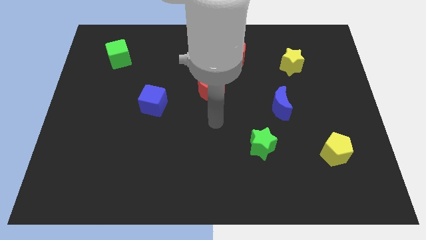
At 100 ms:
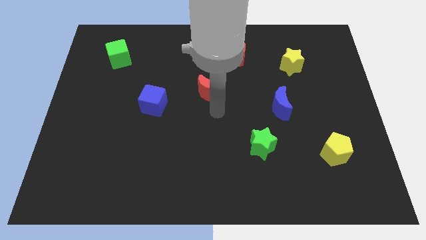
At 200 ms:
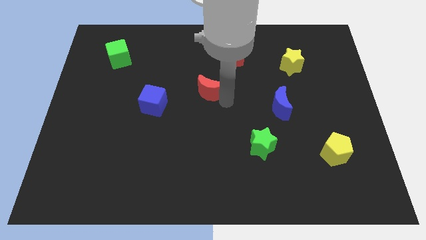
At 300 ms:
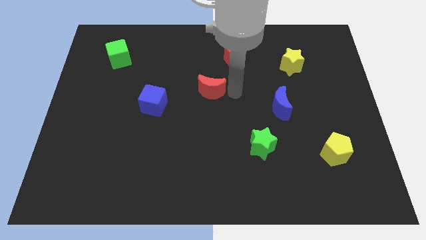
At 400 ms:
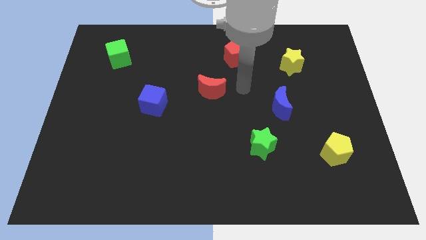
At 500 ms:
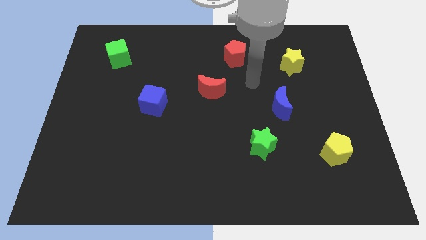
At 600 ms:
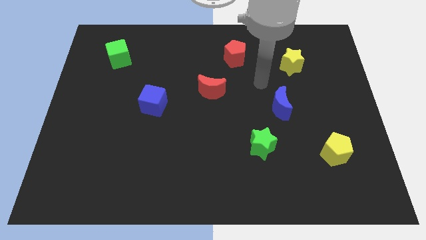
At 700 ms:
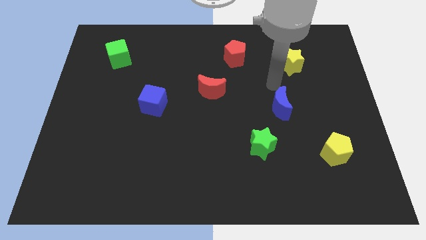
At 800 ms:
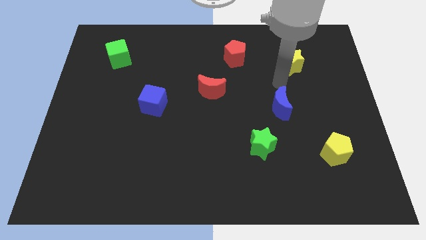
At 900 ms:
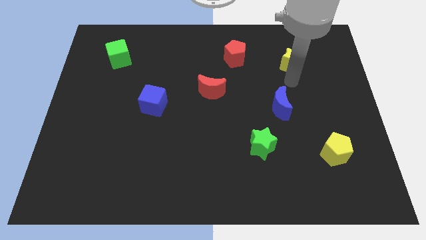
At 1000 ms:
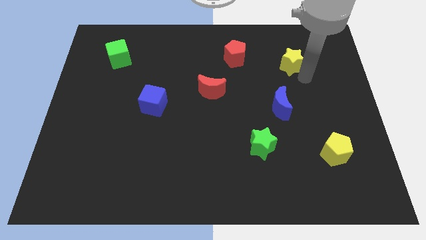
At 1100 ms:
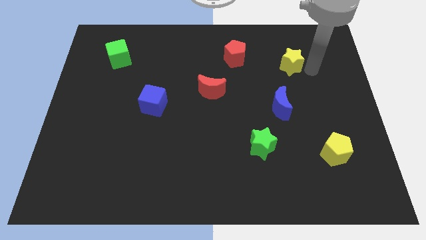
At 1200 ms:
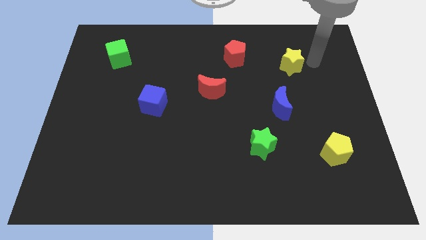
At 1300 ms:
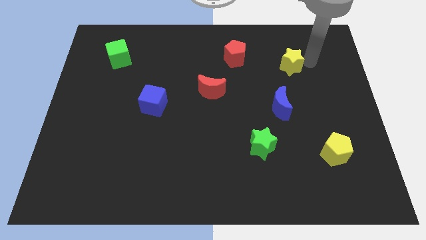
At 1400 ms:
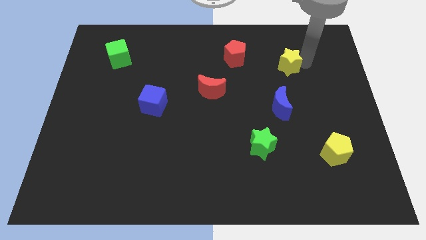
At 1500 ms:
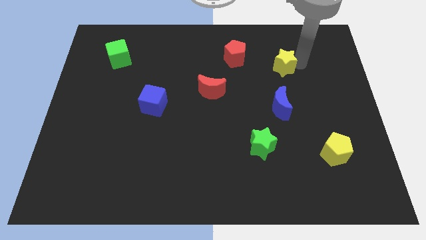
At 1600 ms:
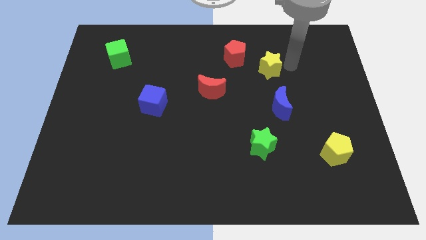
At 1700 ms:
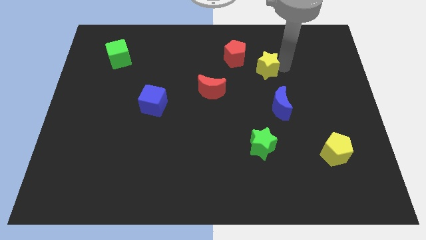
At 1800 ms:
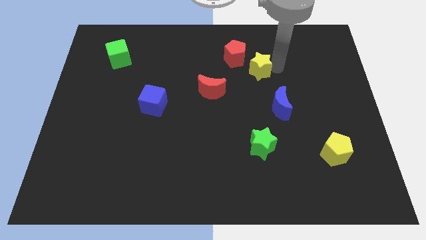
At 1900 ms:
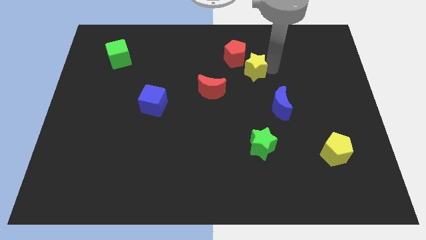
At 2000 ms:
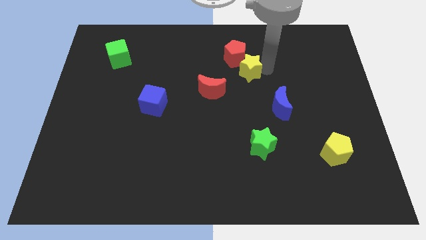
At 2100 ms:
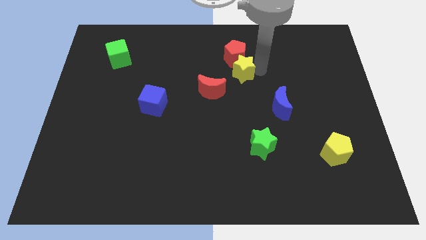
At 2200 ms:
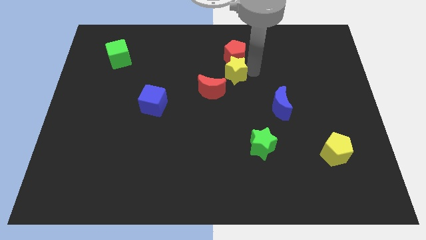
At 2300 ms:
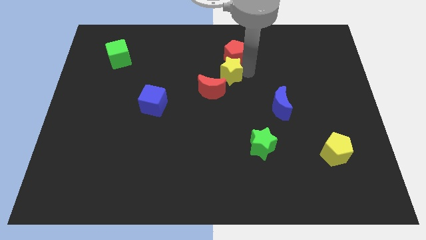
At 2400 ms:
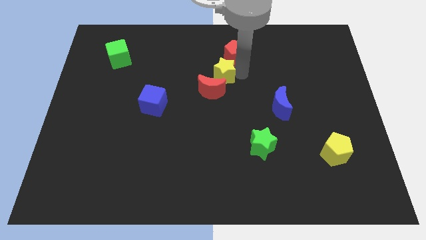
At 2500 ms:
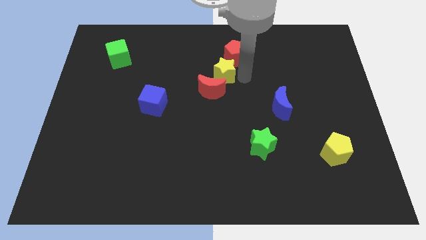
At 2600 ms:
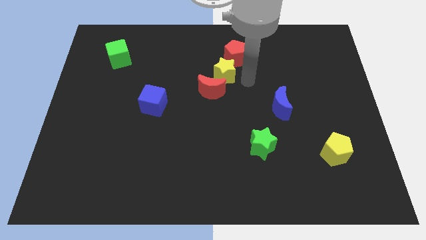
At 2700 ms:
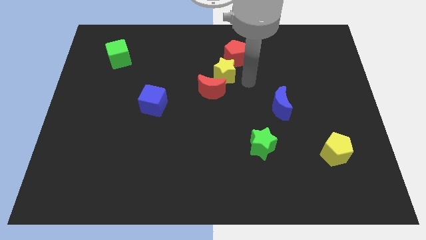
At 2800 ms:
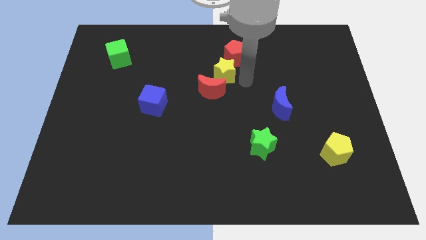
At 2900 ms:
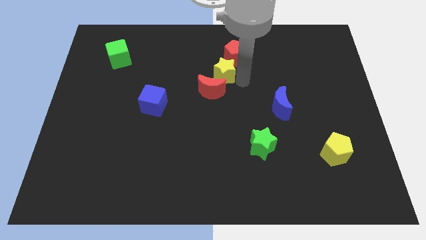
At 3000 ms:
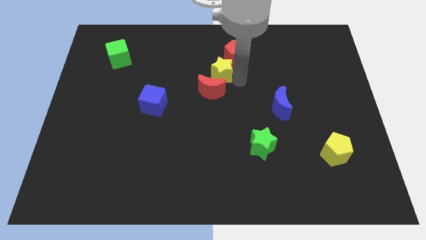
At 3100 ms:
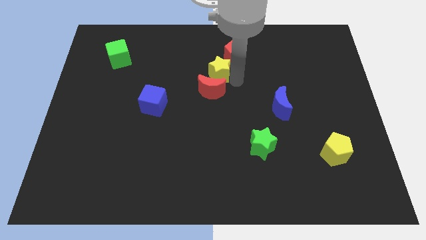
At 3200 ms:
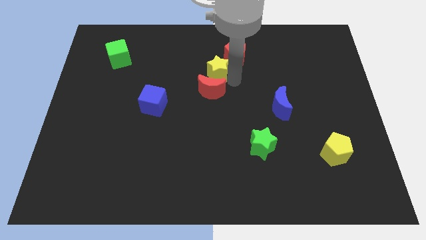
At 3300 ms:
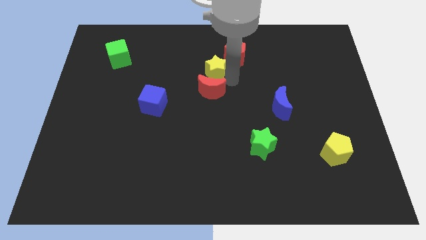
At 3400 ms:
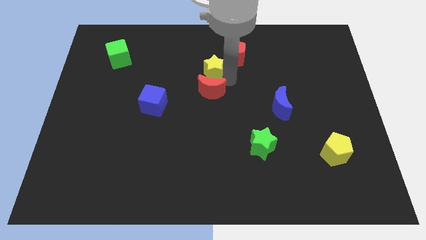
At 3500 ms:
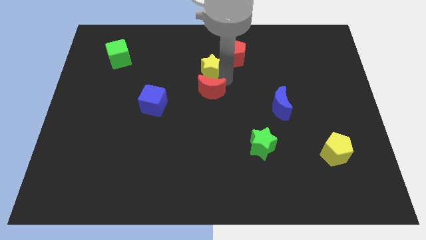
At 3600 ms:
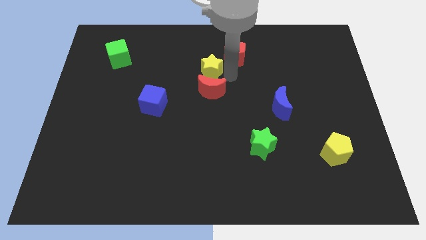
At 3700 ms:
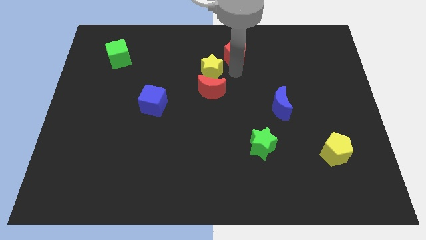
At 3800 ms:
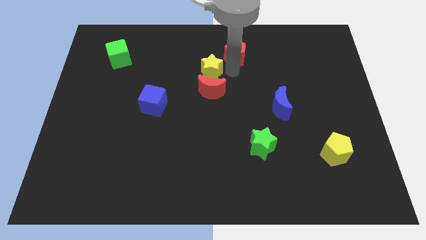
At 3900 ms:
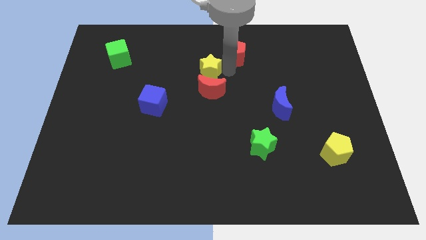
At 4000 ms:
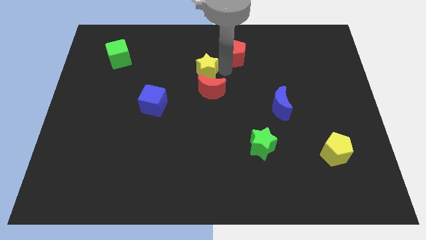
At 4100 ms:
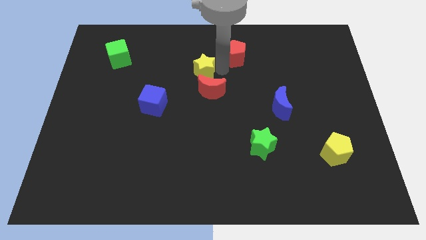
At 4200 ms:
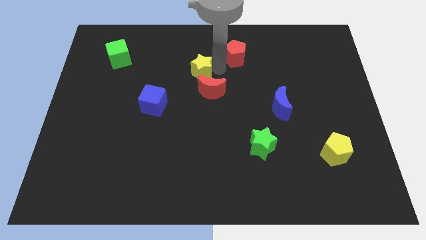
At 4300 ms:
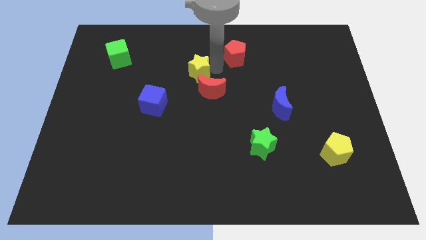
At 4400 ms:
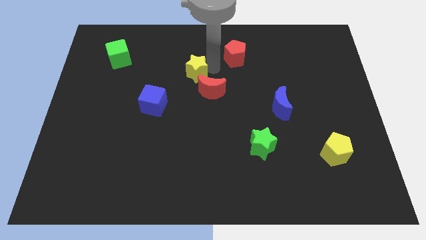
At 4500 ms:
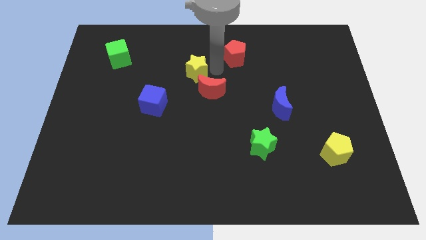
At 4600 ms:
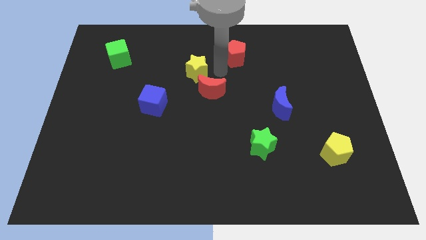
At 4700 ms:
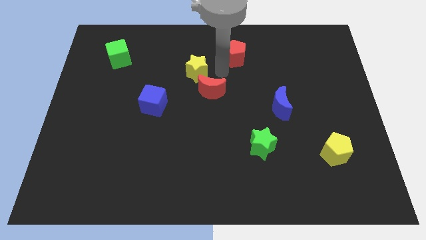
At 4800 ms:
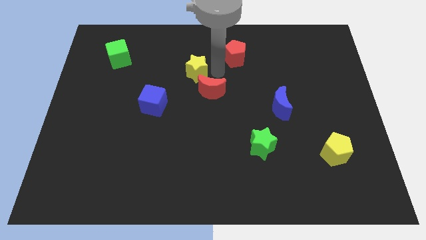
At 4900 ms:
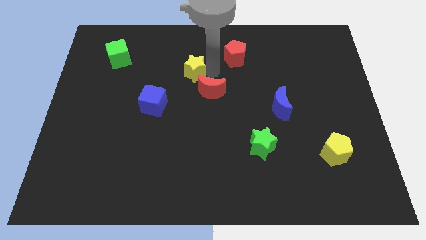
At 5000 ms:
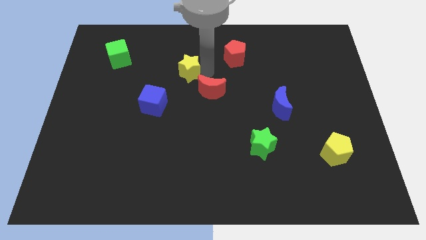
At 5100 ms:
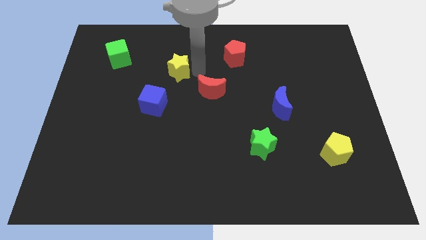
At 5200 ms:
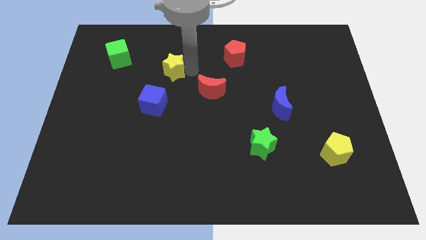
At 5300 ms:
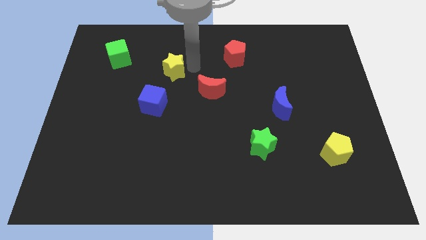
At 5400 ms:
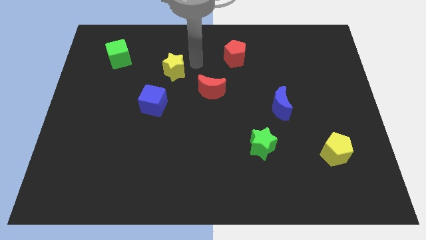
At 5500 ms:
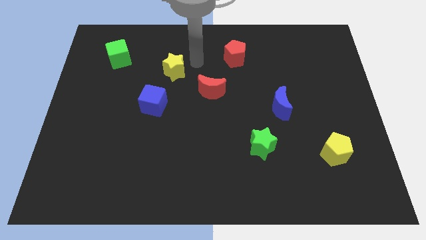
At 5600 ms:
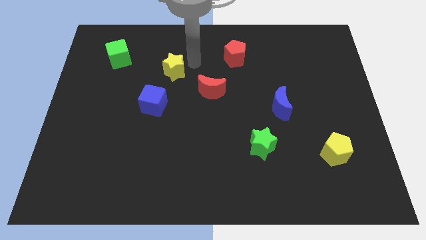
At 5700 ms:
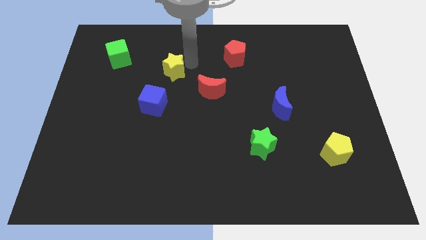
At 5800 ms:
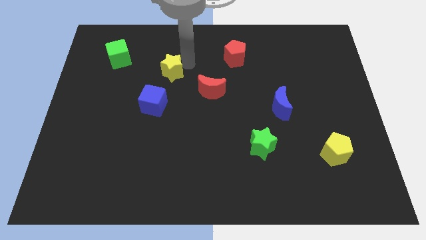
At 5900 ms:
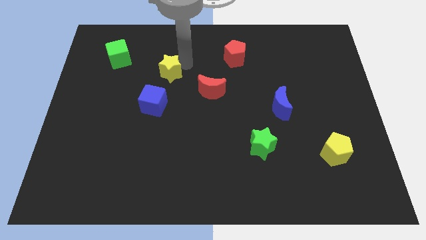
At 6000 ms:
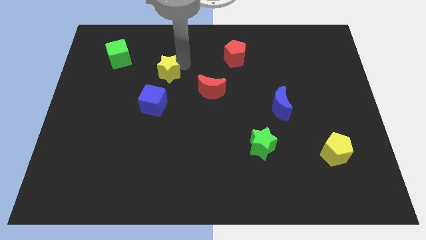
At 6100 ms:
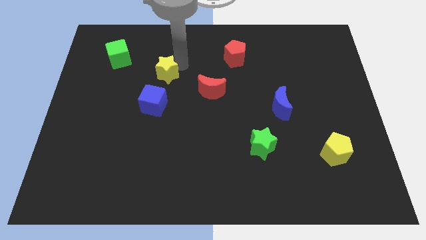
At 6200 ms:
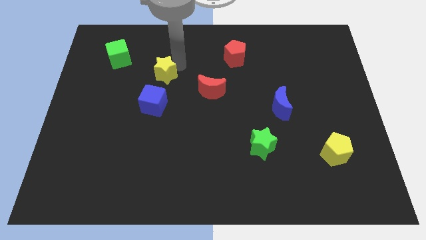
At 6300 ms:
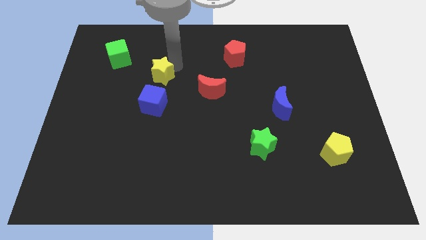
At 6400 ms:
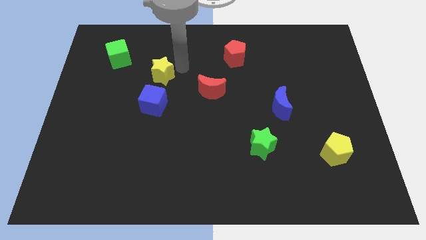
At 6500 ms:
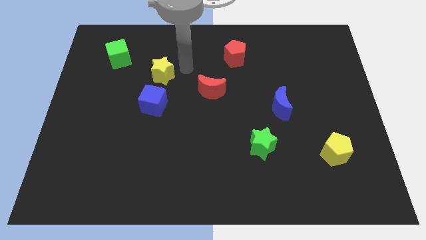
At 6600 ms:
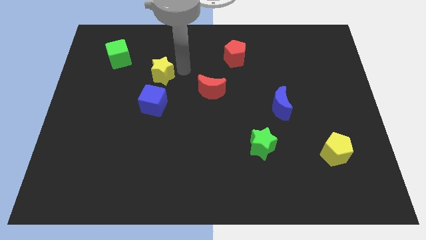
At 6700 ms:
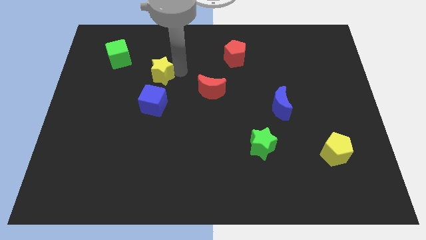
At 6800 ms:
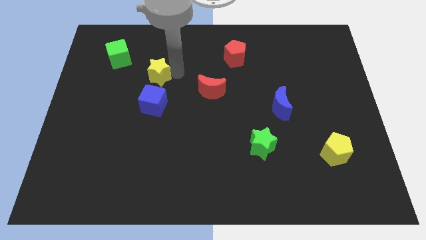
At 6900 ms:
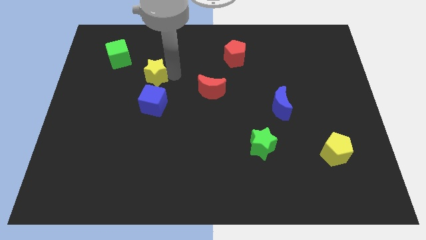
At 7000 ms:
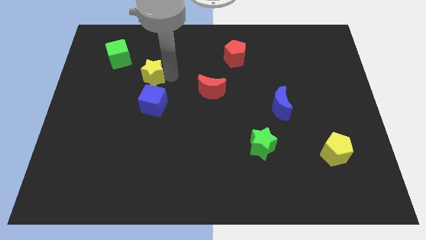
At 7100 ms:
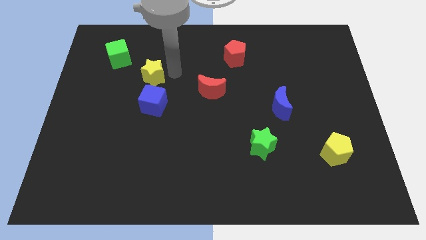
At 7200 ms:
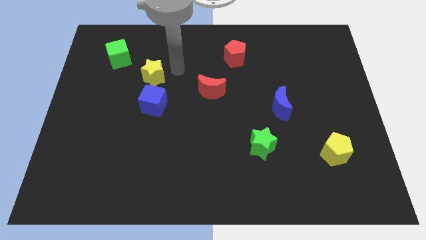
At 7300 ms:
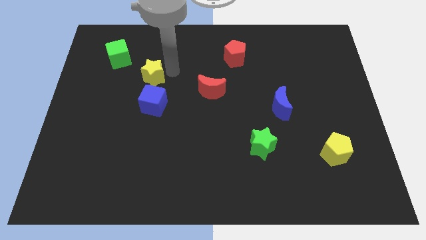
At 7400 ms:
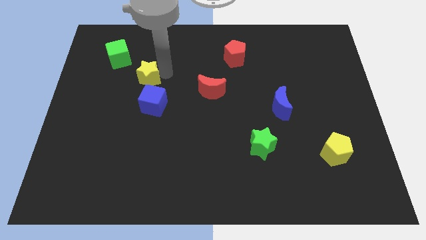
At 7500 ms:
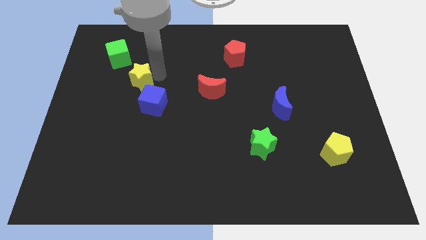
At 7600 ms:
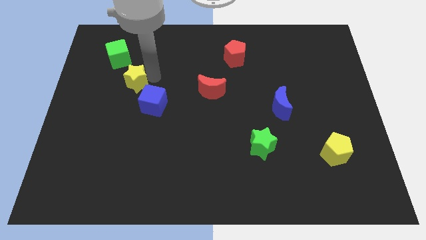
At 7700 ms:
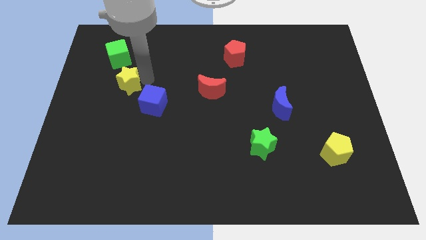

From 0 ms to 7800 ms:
move the yellow star below the green cube
